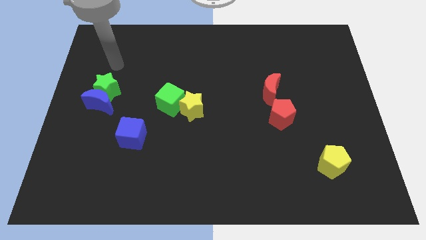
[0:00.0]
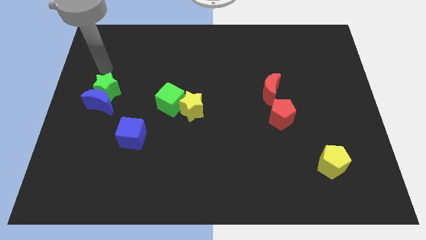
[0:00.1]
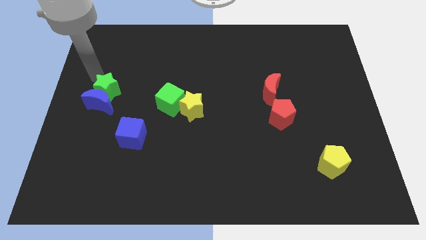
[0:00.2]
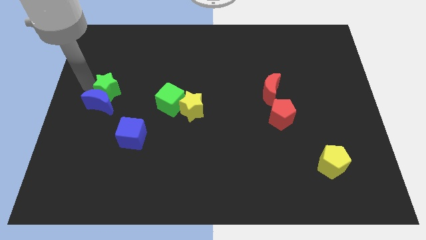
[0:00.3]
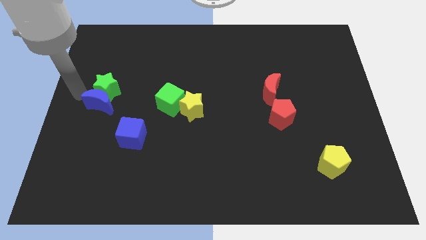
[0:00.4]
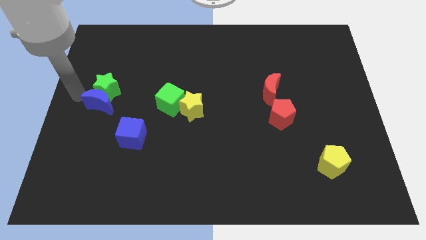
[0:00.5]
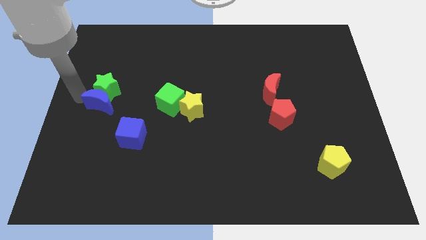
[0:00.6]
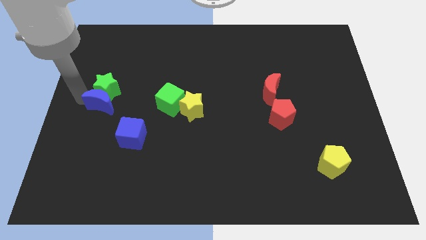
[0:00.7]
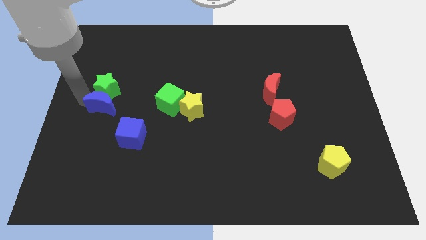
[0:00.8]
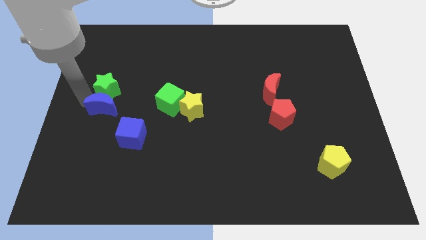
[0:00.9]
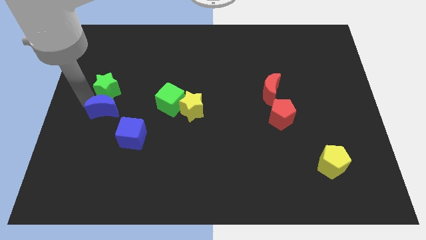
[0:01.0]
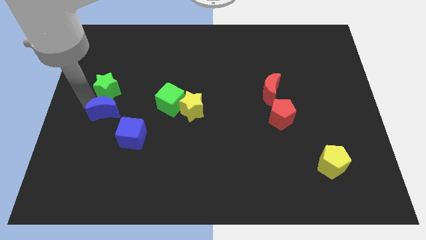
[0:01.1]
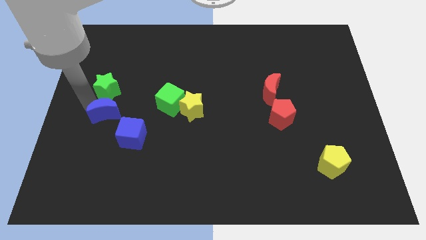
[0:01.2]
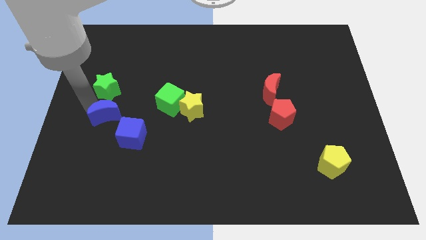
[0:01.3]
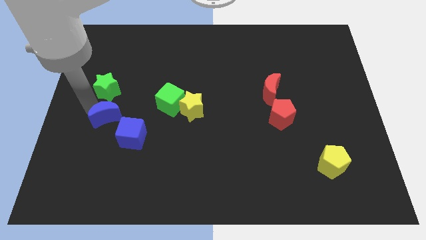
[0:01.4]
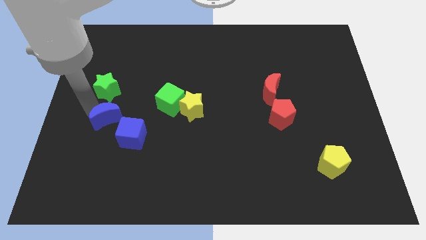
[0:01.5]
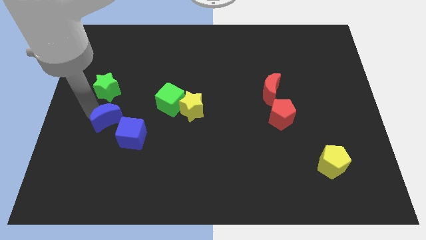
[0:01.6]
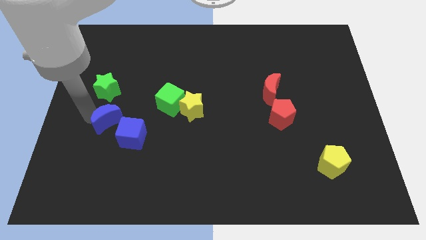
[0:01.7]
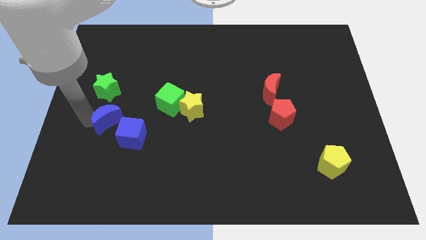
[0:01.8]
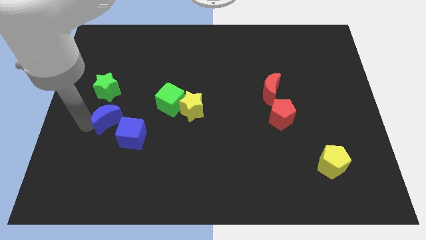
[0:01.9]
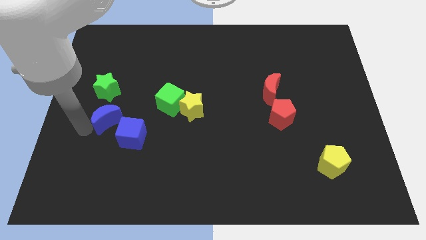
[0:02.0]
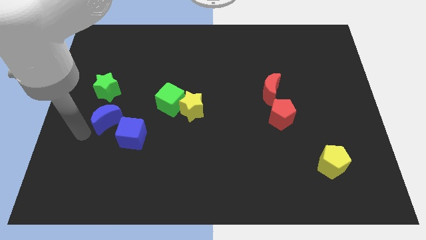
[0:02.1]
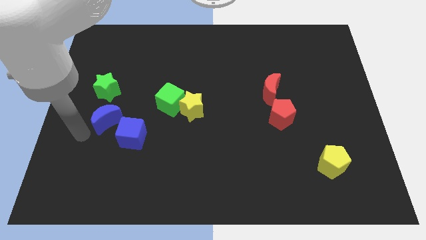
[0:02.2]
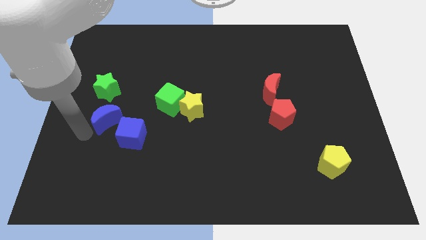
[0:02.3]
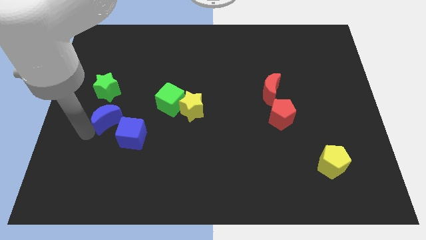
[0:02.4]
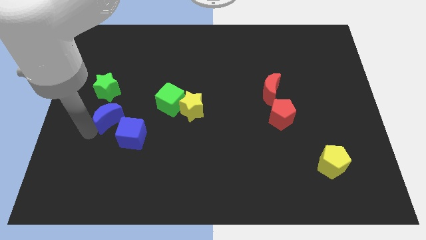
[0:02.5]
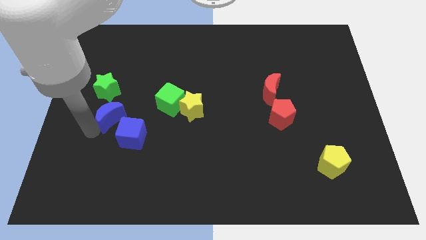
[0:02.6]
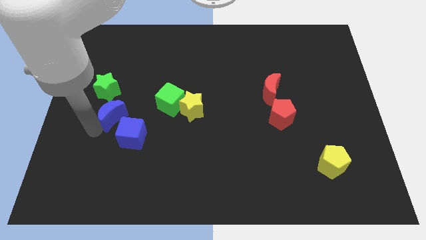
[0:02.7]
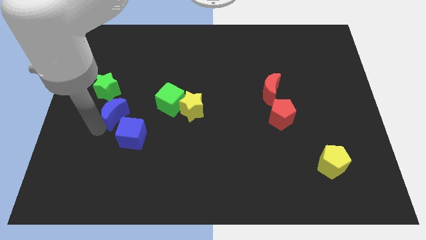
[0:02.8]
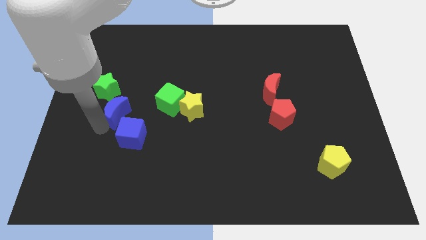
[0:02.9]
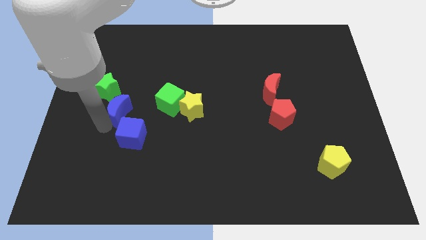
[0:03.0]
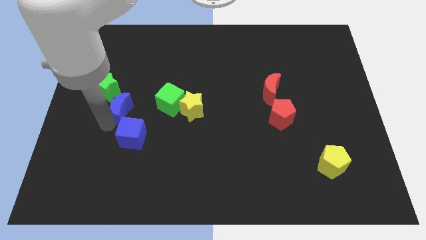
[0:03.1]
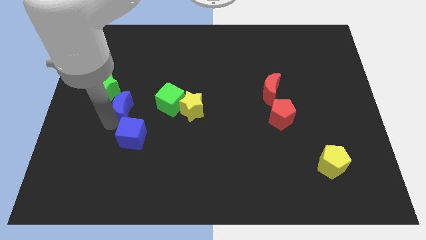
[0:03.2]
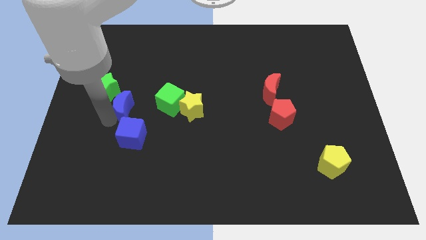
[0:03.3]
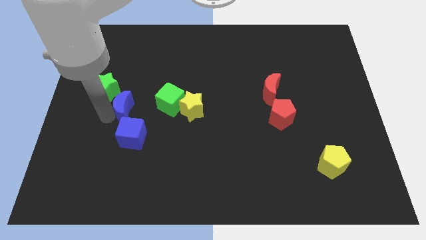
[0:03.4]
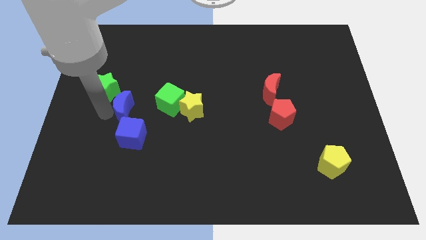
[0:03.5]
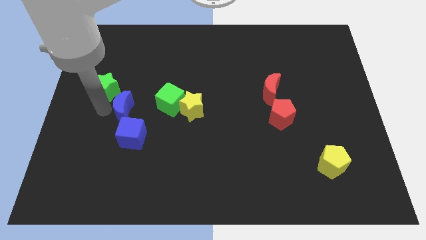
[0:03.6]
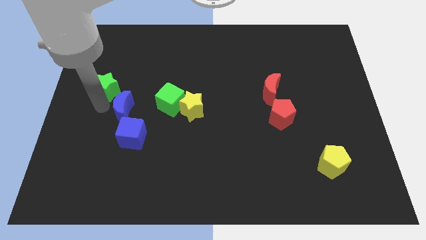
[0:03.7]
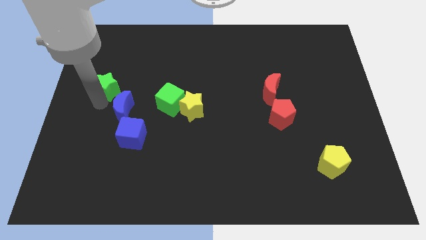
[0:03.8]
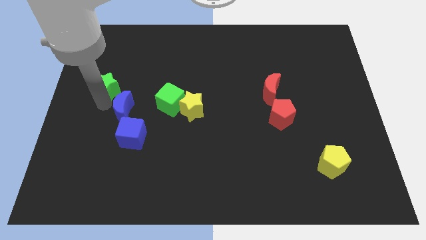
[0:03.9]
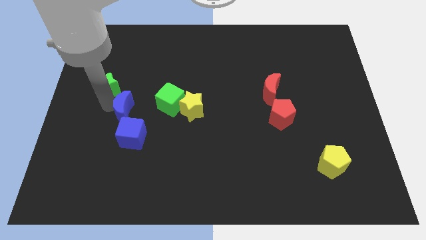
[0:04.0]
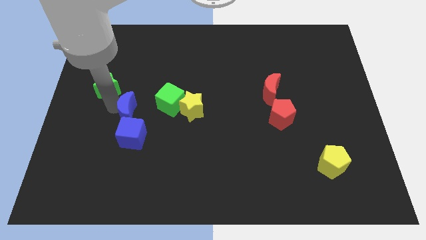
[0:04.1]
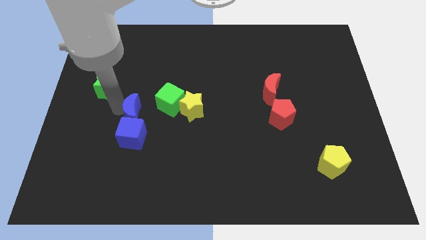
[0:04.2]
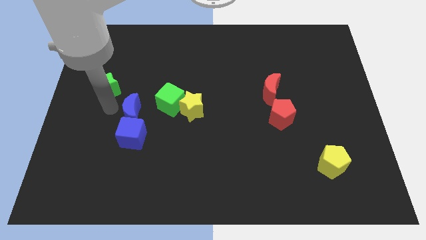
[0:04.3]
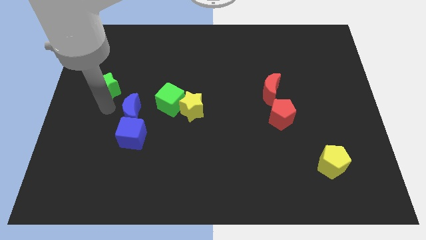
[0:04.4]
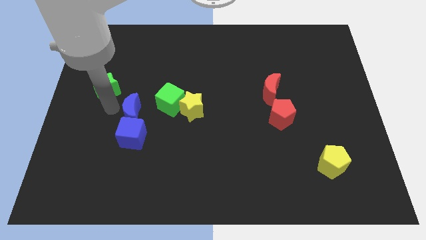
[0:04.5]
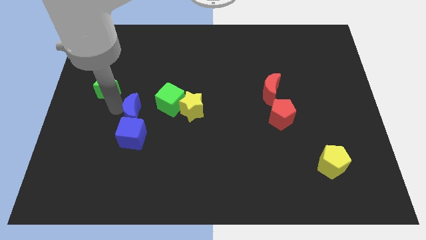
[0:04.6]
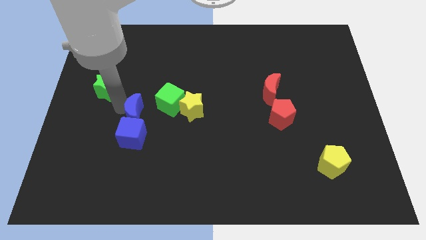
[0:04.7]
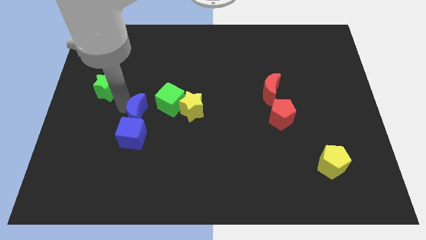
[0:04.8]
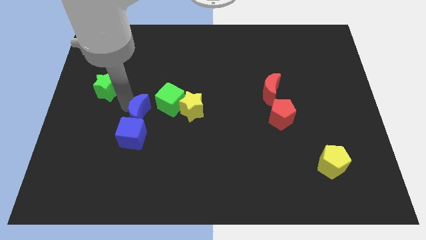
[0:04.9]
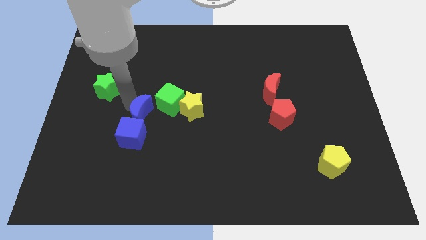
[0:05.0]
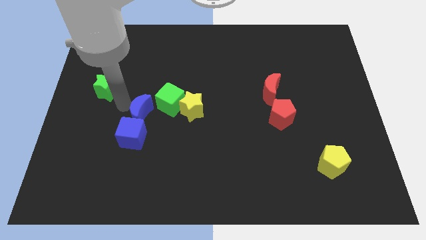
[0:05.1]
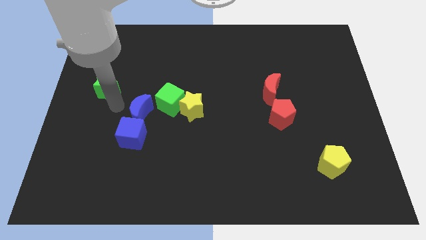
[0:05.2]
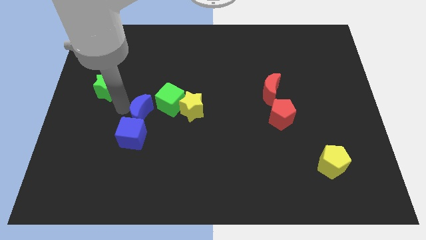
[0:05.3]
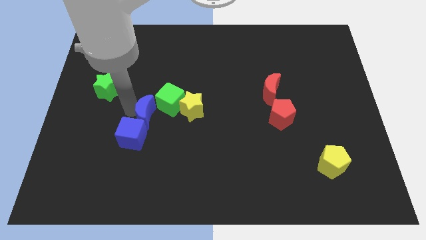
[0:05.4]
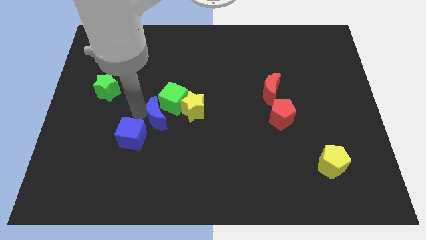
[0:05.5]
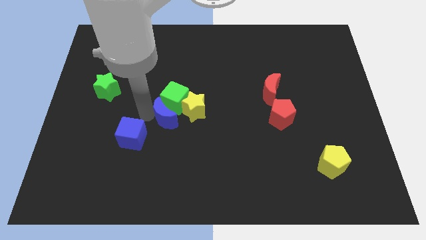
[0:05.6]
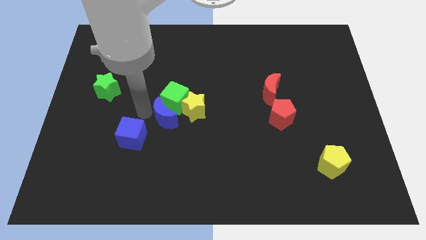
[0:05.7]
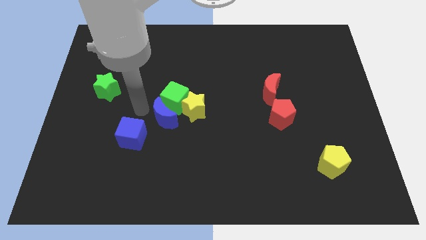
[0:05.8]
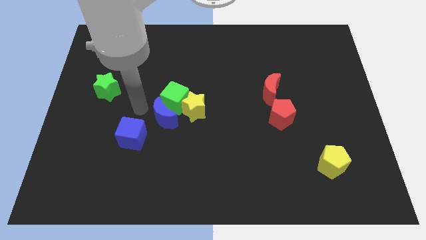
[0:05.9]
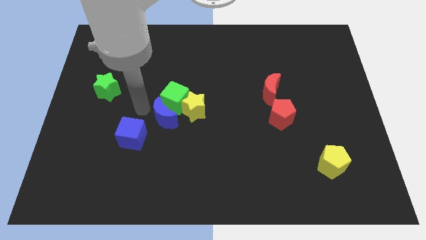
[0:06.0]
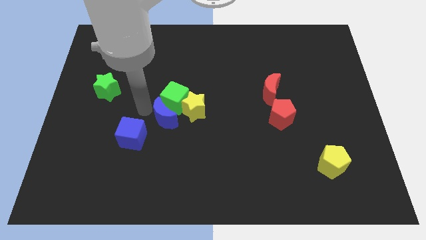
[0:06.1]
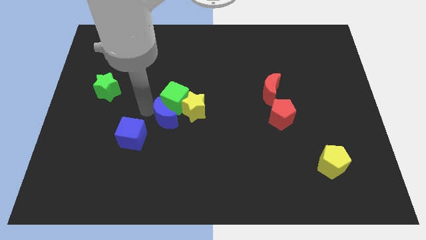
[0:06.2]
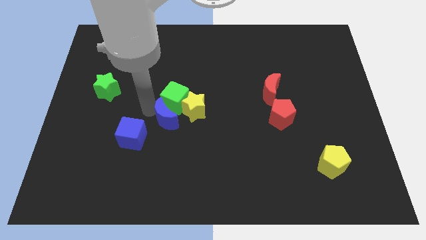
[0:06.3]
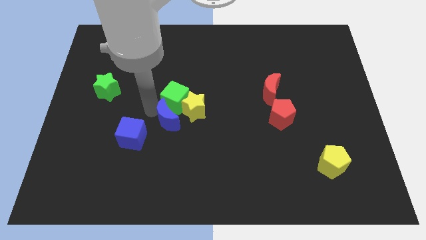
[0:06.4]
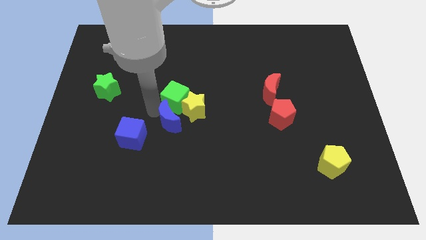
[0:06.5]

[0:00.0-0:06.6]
push the blue moon diagonally down and to the right of the green cube
